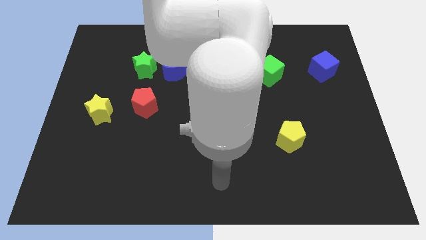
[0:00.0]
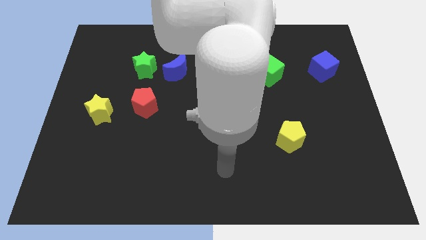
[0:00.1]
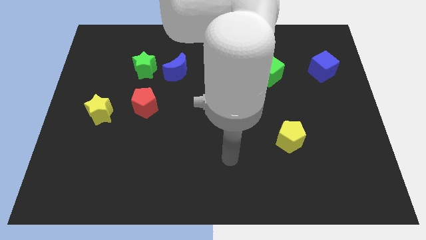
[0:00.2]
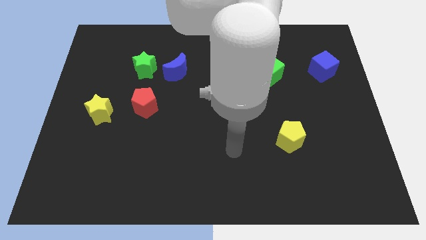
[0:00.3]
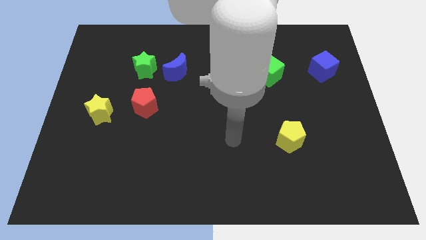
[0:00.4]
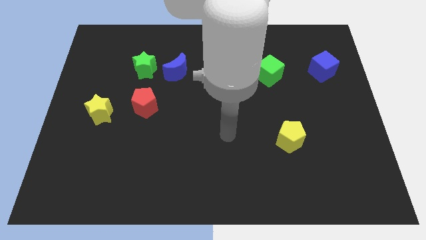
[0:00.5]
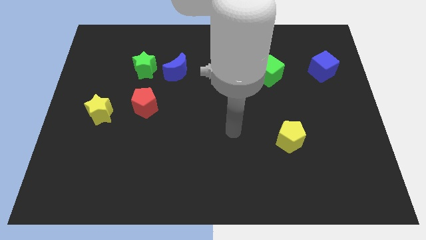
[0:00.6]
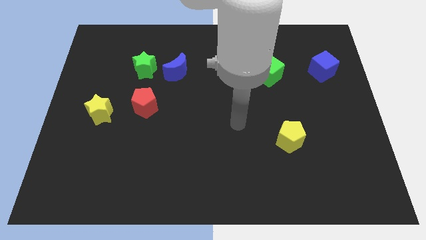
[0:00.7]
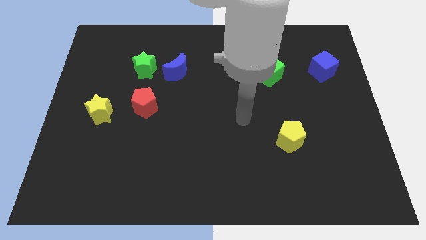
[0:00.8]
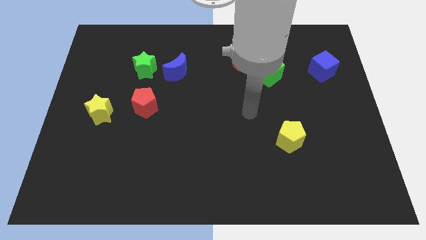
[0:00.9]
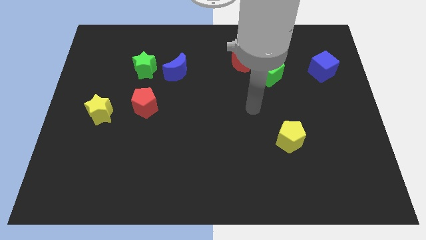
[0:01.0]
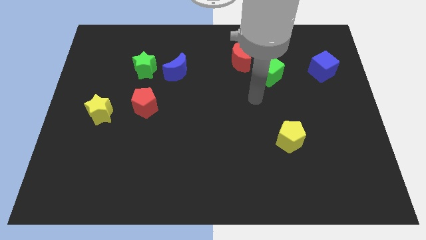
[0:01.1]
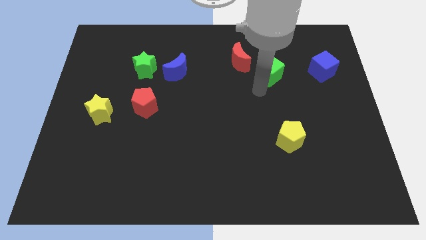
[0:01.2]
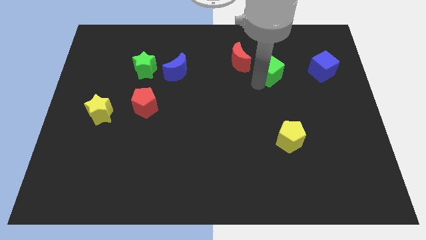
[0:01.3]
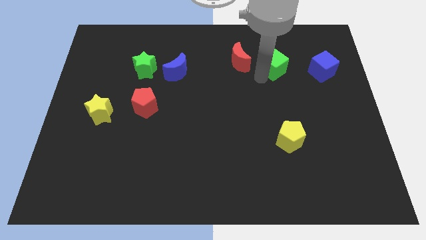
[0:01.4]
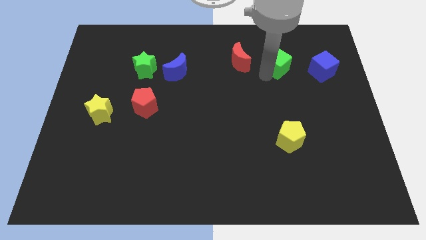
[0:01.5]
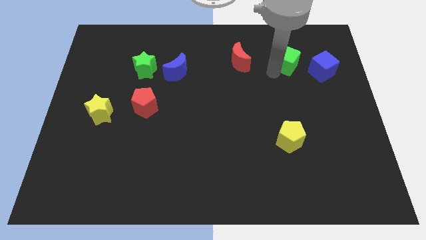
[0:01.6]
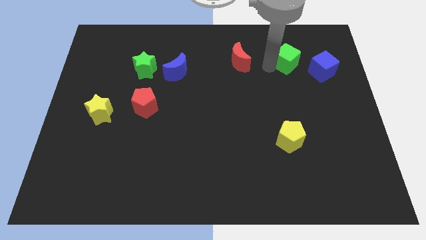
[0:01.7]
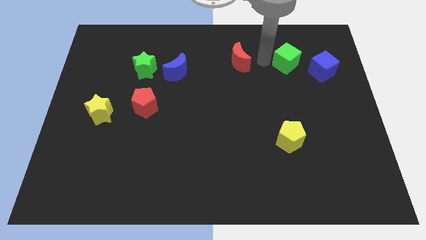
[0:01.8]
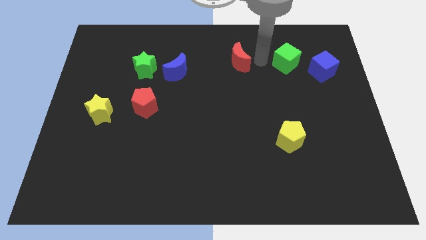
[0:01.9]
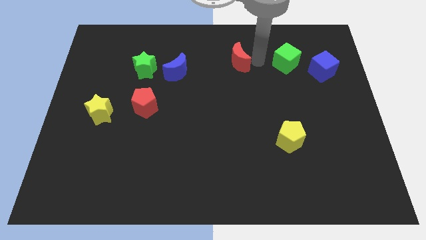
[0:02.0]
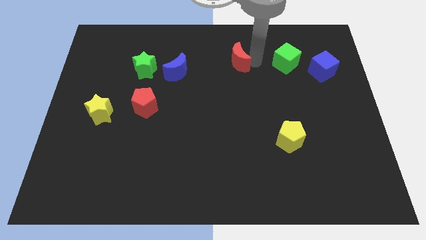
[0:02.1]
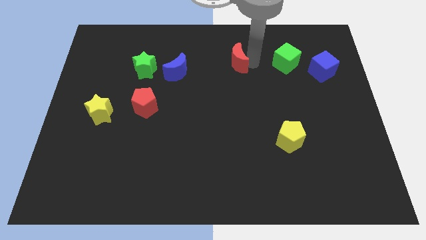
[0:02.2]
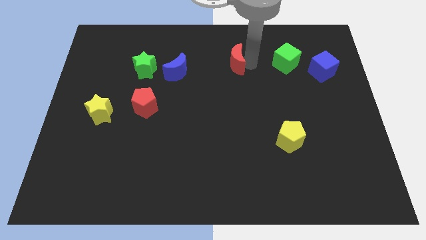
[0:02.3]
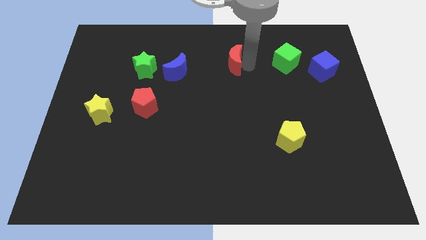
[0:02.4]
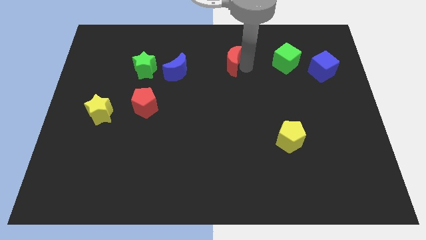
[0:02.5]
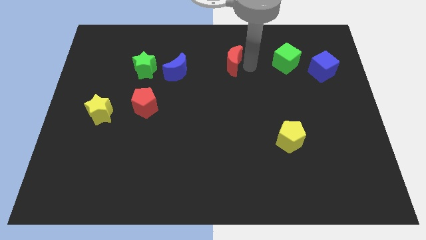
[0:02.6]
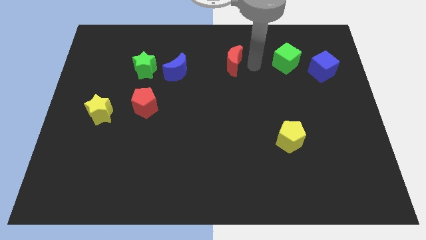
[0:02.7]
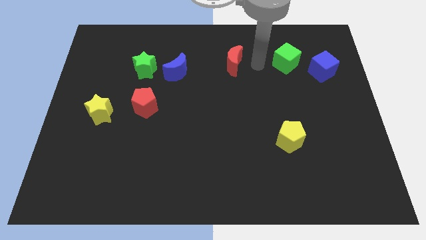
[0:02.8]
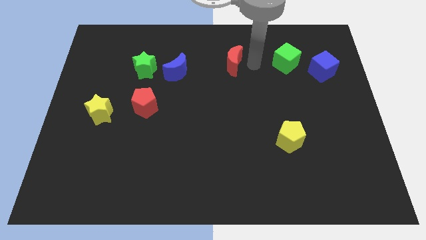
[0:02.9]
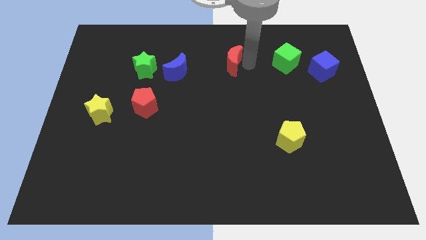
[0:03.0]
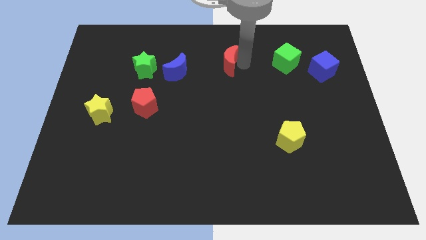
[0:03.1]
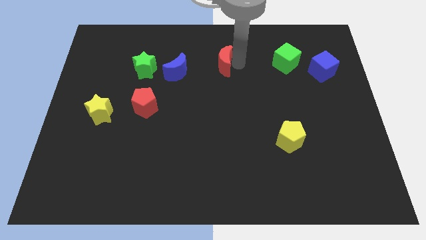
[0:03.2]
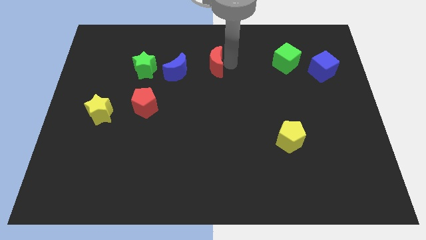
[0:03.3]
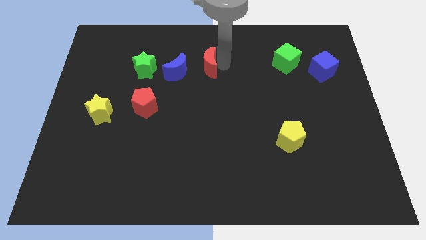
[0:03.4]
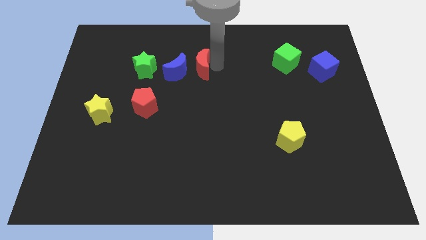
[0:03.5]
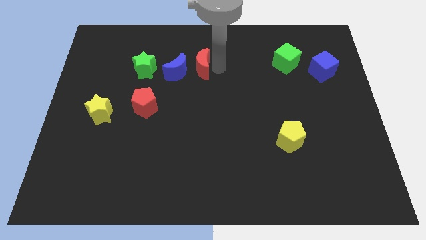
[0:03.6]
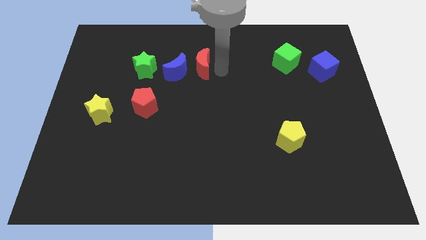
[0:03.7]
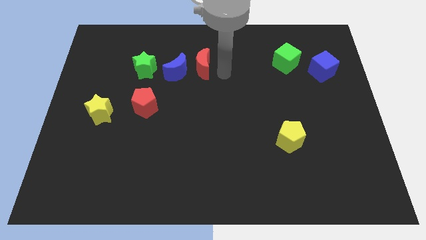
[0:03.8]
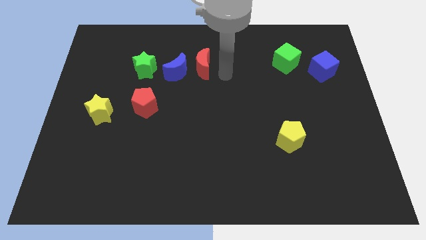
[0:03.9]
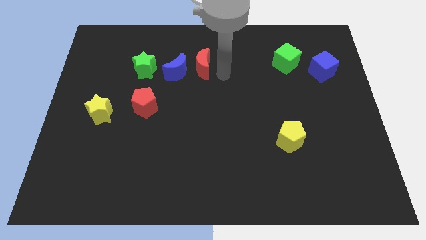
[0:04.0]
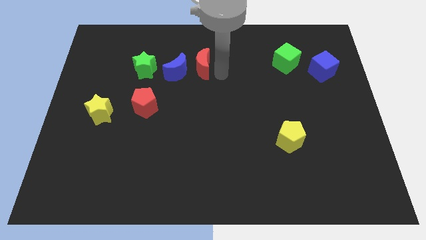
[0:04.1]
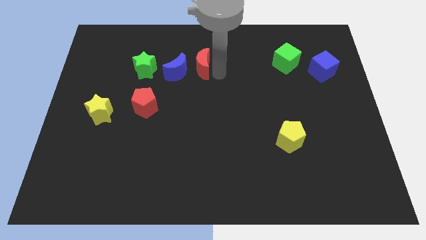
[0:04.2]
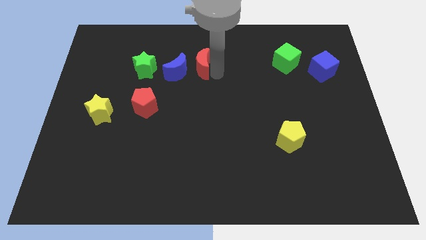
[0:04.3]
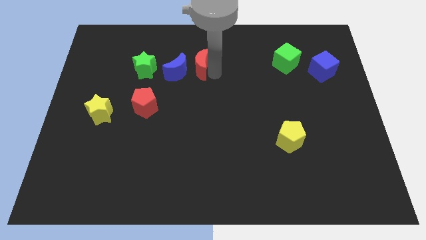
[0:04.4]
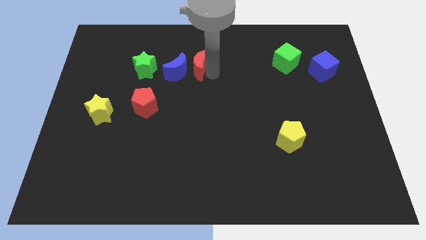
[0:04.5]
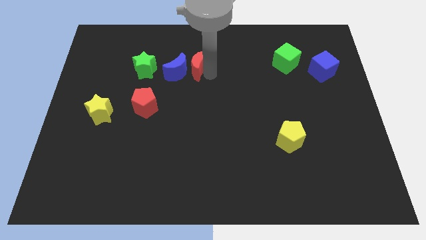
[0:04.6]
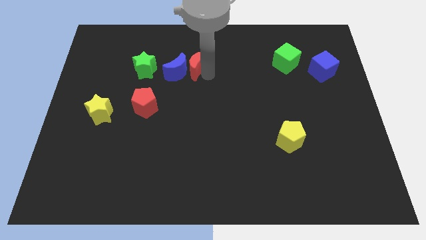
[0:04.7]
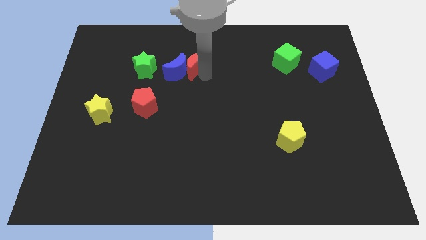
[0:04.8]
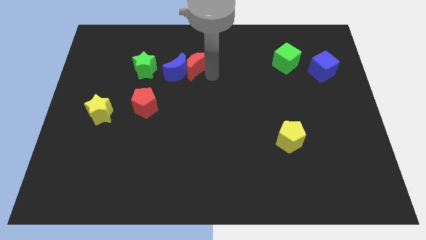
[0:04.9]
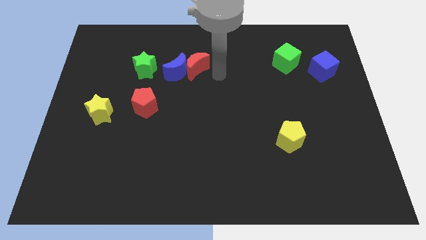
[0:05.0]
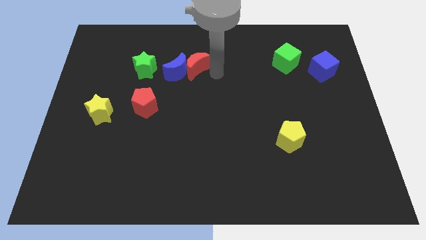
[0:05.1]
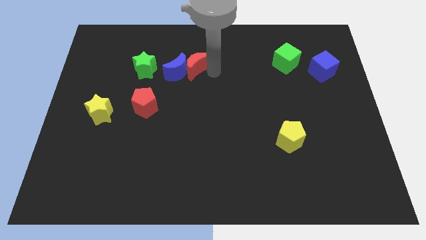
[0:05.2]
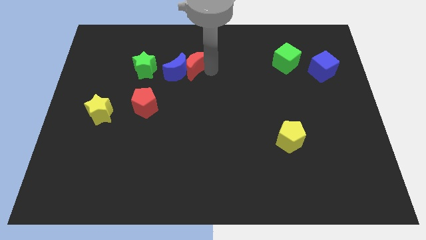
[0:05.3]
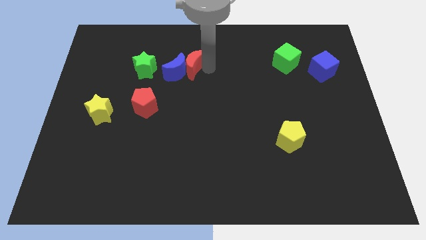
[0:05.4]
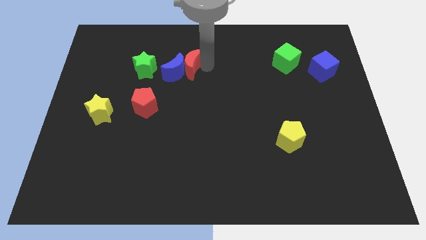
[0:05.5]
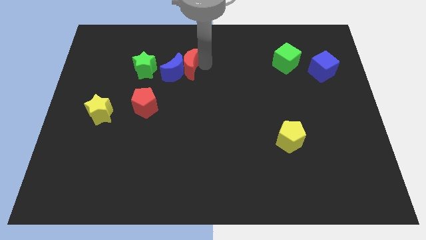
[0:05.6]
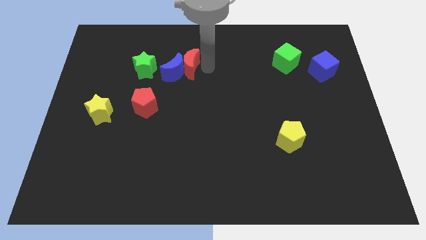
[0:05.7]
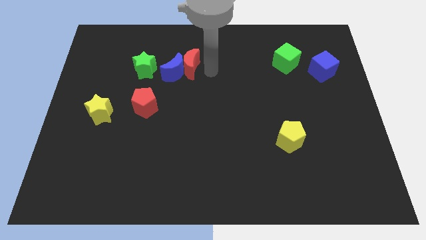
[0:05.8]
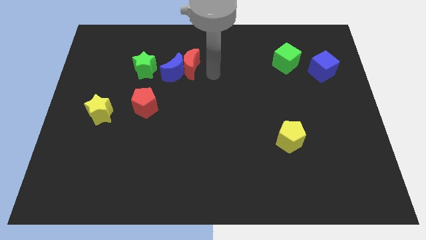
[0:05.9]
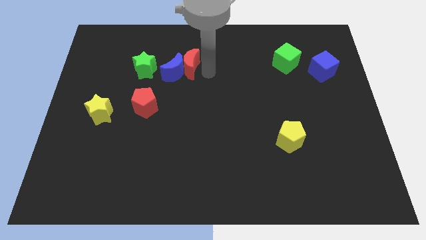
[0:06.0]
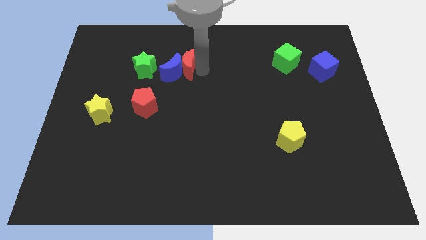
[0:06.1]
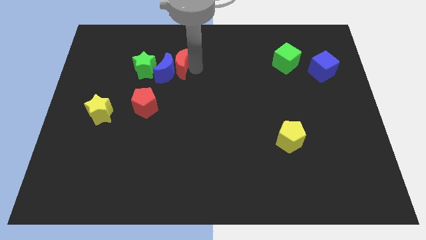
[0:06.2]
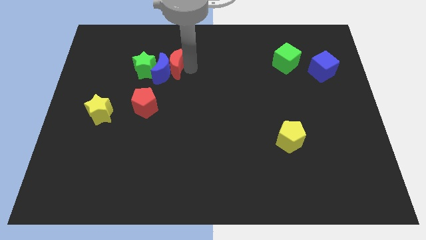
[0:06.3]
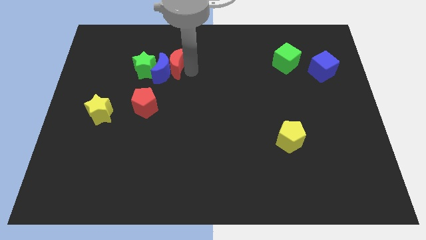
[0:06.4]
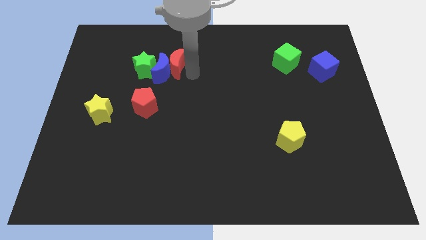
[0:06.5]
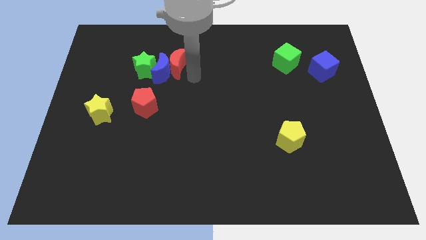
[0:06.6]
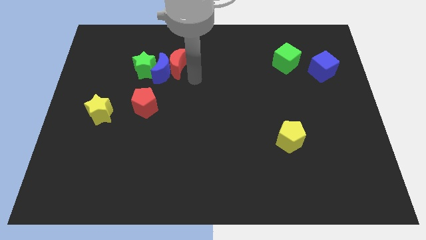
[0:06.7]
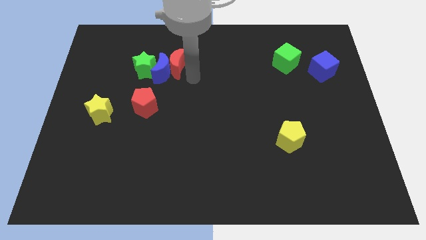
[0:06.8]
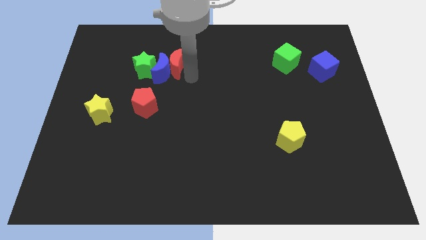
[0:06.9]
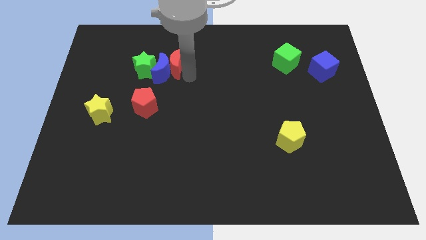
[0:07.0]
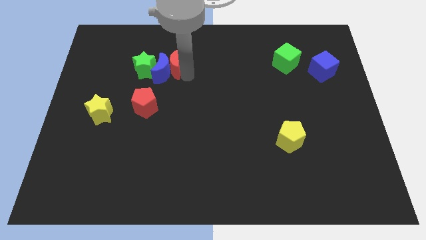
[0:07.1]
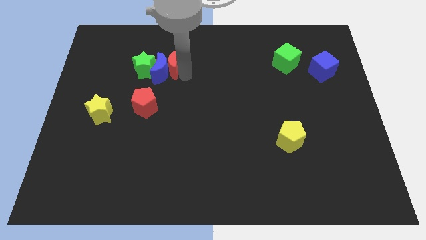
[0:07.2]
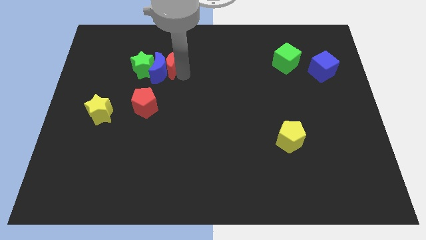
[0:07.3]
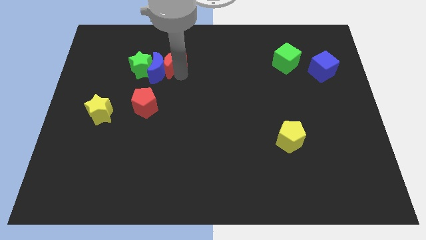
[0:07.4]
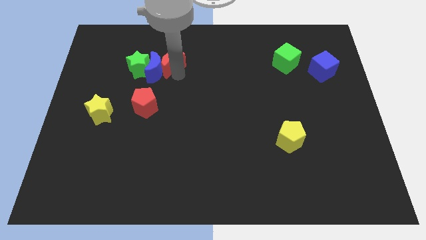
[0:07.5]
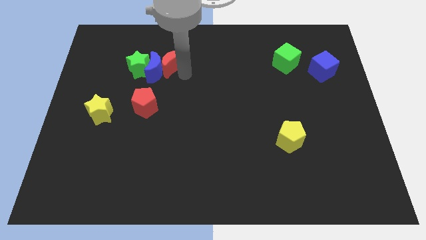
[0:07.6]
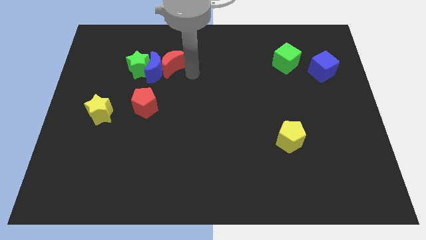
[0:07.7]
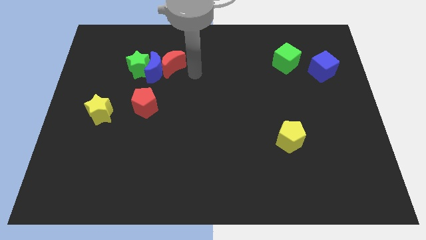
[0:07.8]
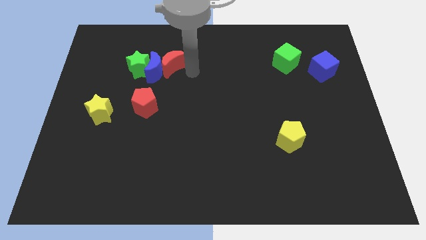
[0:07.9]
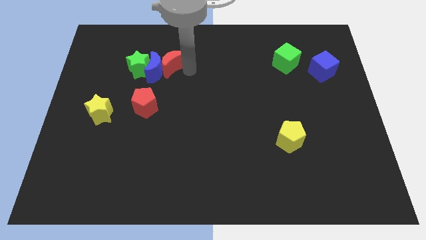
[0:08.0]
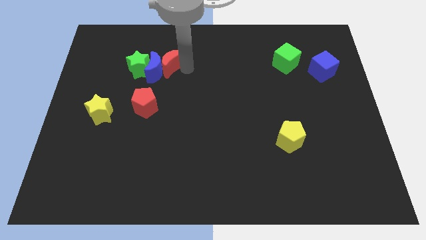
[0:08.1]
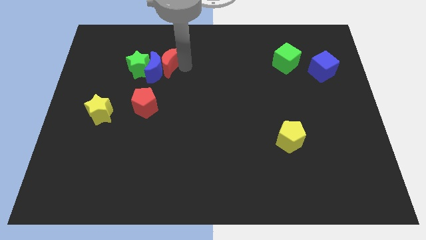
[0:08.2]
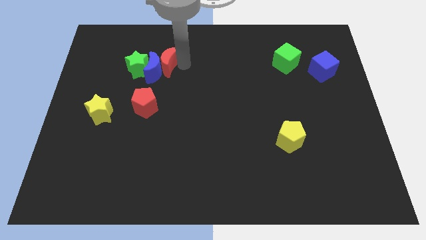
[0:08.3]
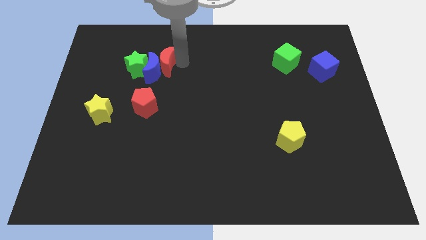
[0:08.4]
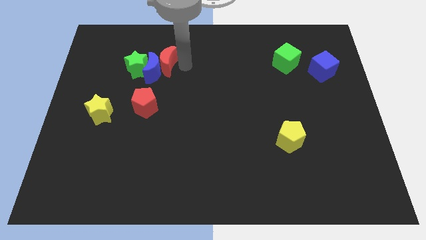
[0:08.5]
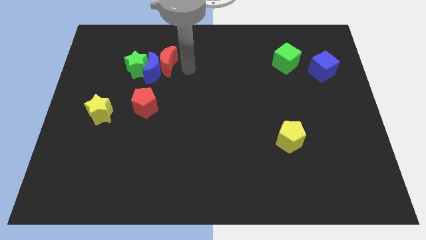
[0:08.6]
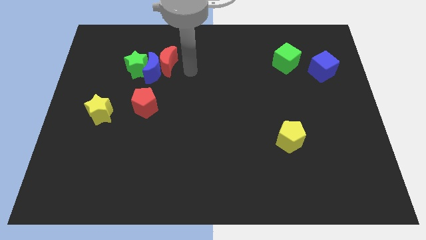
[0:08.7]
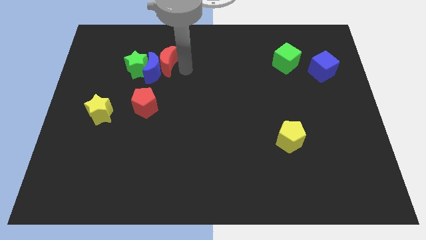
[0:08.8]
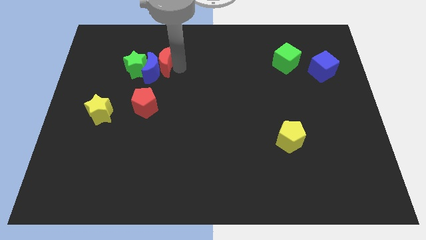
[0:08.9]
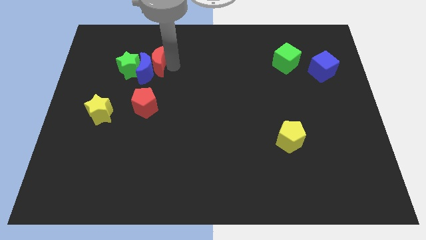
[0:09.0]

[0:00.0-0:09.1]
slide the red moon to the left
